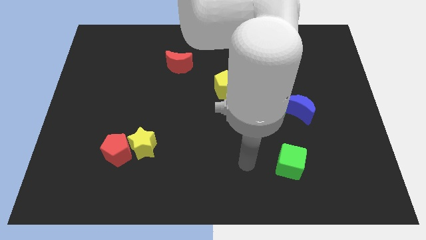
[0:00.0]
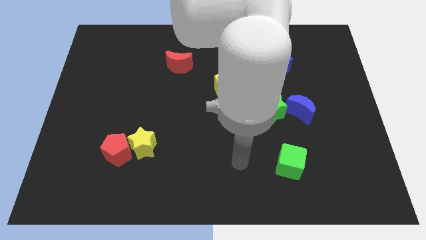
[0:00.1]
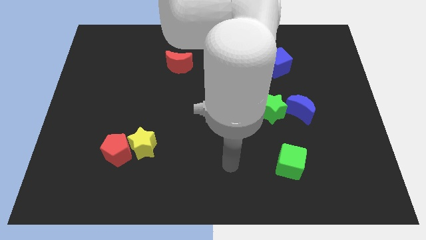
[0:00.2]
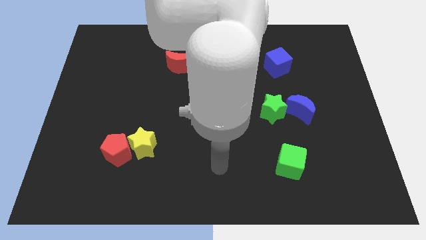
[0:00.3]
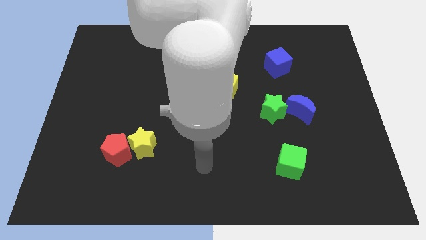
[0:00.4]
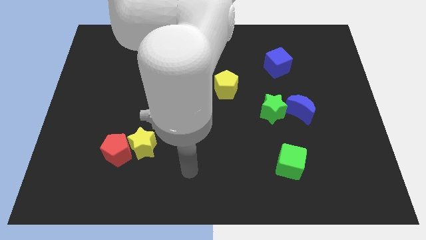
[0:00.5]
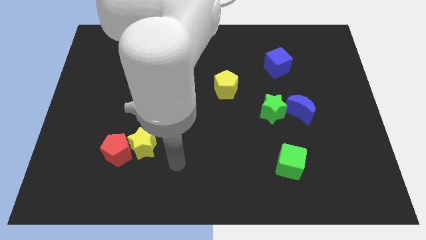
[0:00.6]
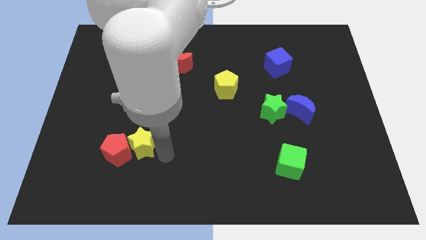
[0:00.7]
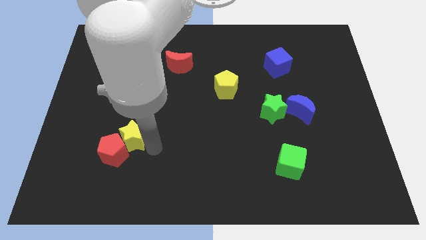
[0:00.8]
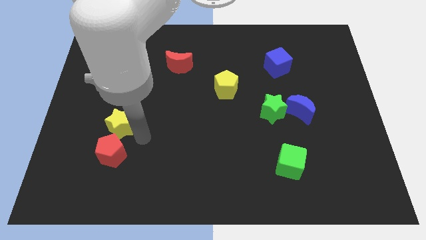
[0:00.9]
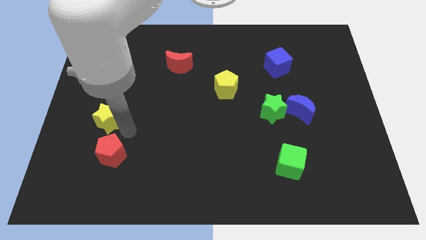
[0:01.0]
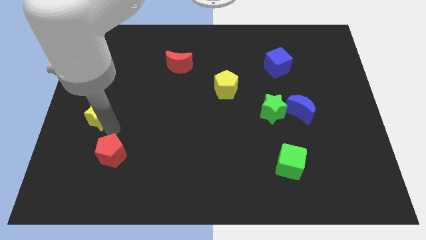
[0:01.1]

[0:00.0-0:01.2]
pull the red pentagon apart from the yellow star

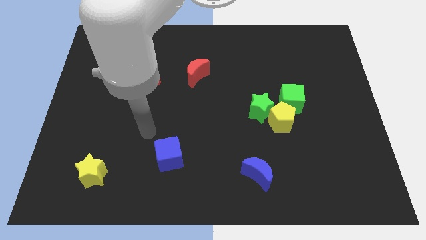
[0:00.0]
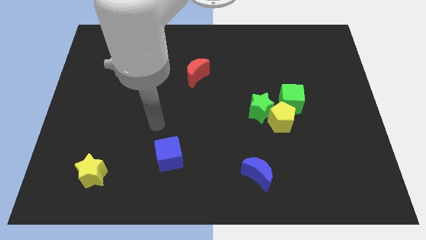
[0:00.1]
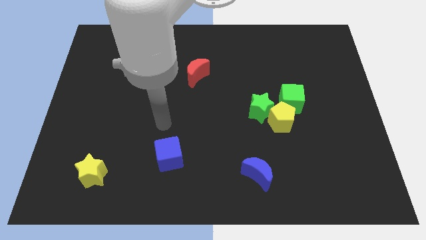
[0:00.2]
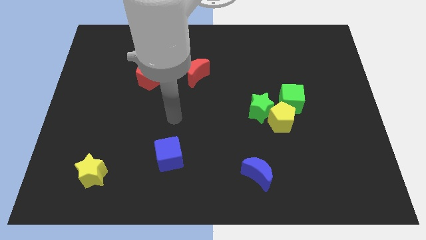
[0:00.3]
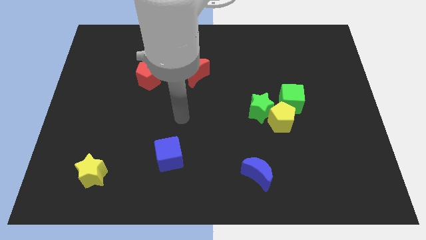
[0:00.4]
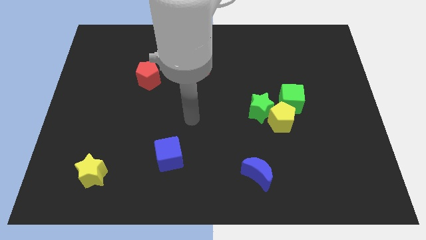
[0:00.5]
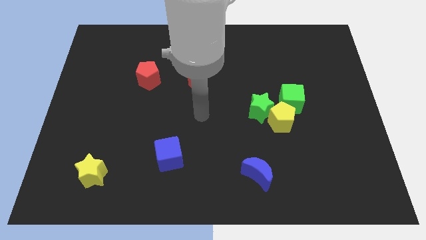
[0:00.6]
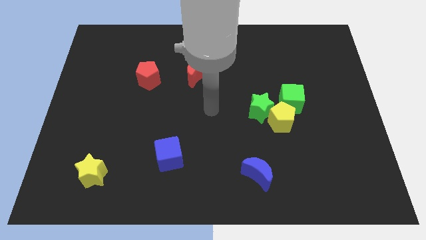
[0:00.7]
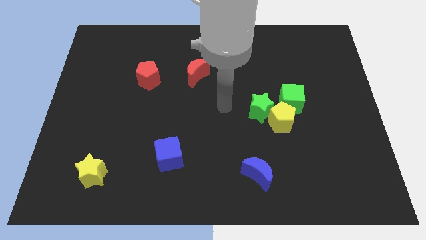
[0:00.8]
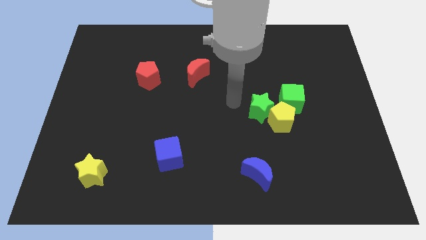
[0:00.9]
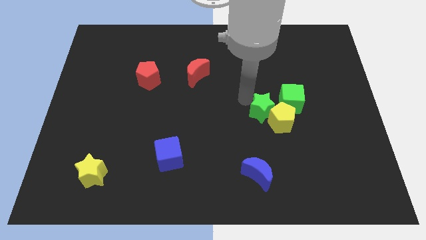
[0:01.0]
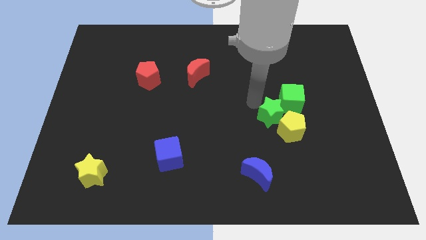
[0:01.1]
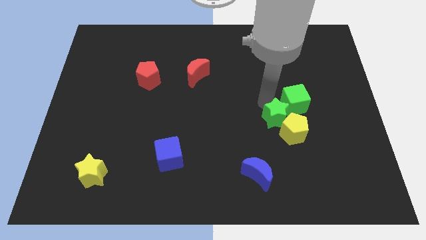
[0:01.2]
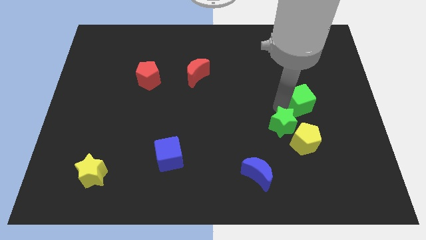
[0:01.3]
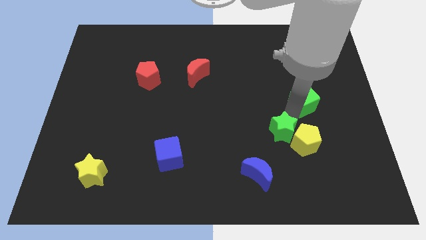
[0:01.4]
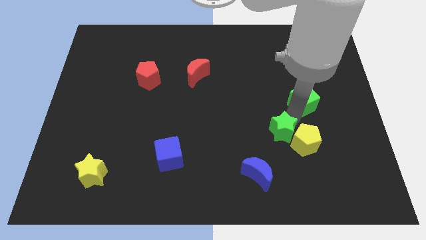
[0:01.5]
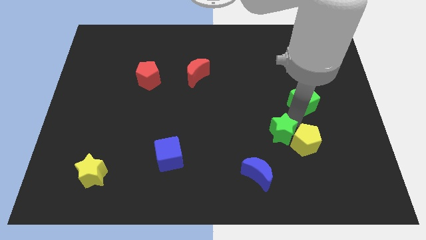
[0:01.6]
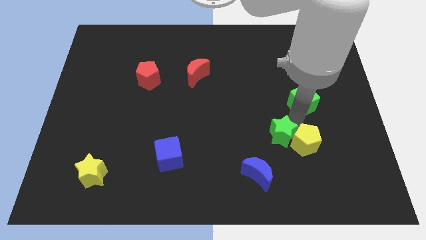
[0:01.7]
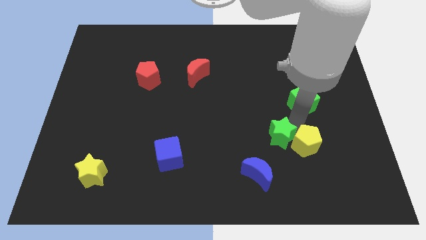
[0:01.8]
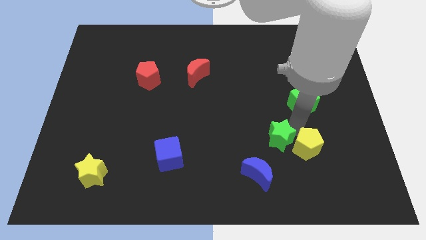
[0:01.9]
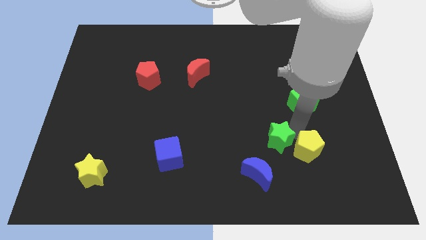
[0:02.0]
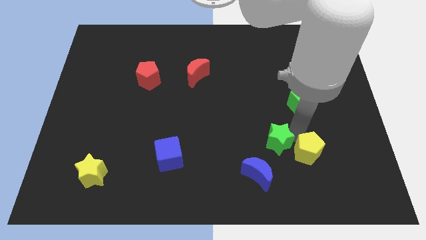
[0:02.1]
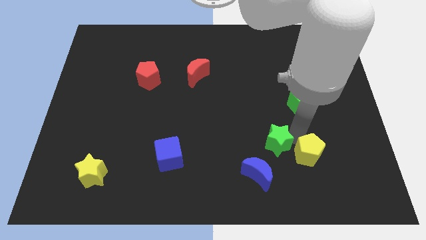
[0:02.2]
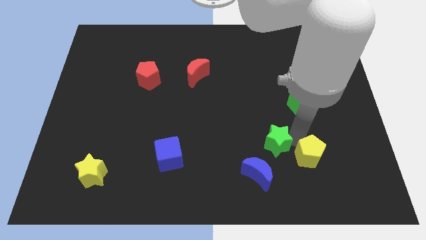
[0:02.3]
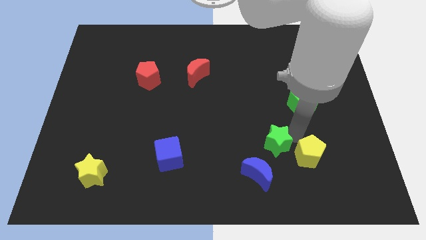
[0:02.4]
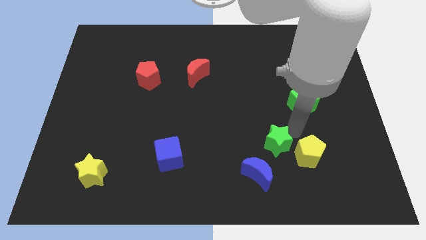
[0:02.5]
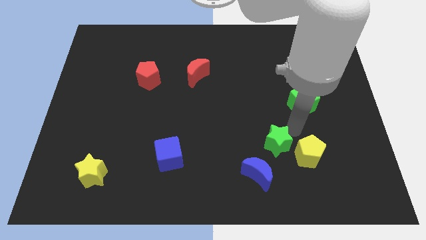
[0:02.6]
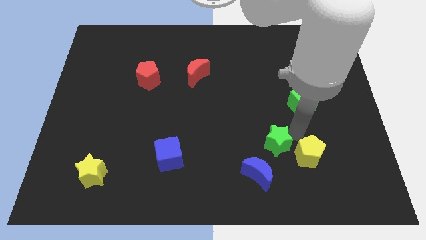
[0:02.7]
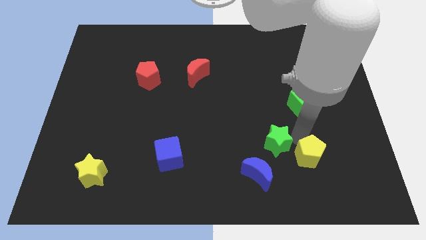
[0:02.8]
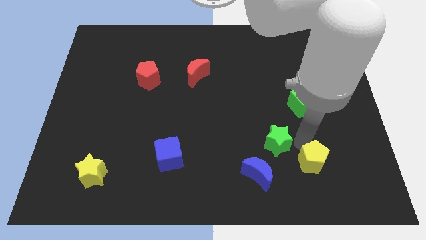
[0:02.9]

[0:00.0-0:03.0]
pull the yellow pentagon apart from the green star and green cube

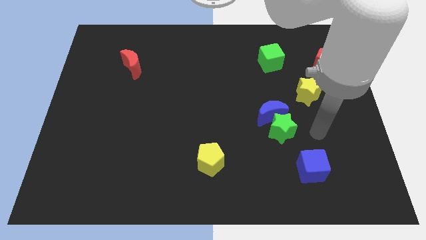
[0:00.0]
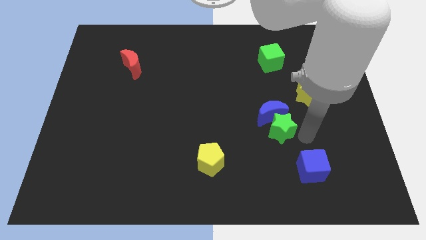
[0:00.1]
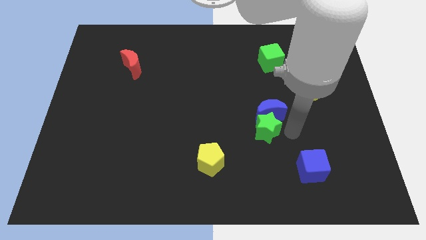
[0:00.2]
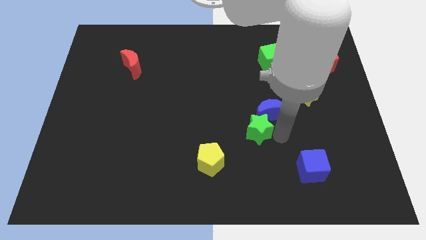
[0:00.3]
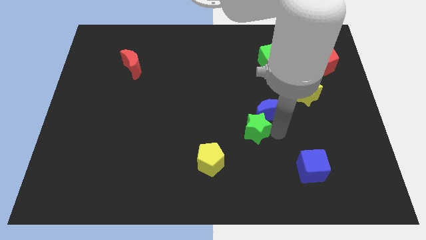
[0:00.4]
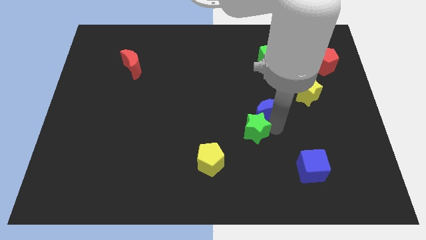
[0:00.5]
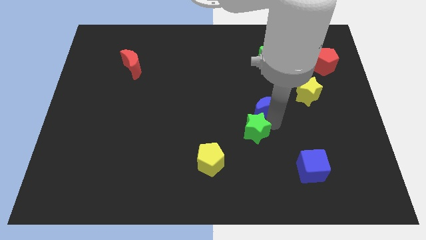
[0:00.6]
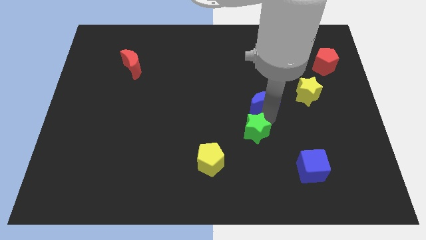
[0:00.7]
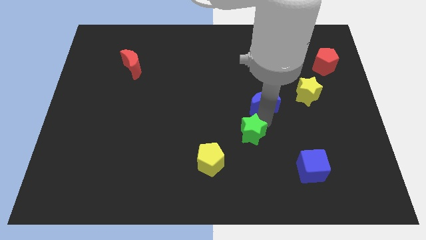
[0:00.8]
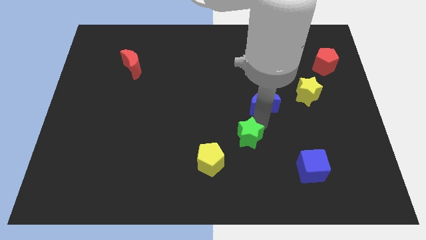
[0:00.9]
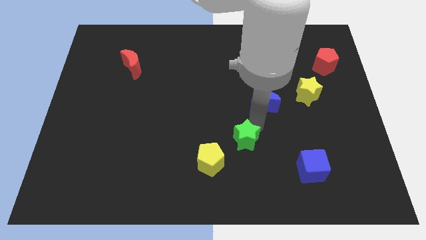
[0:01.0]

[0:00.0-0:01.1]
pull the blue moon apart from the green star

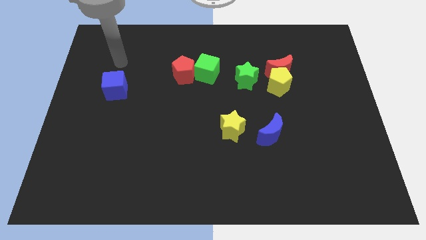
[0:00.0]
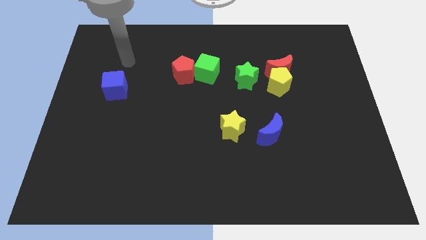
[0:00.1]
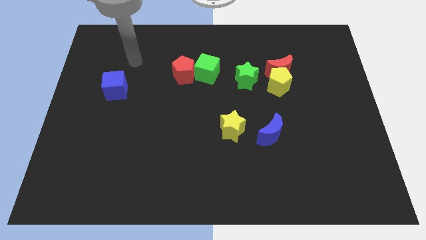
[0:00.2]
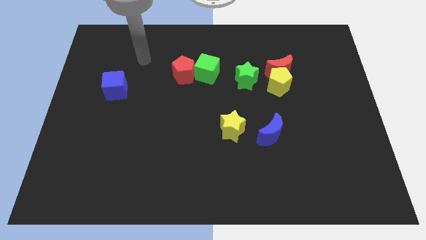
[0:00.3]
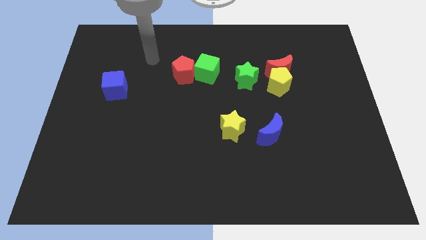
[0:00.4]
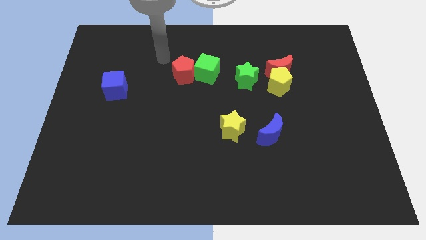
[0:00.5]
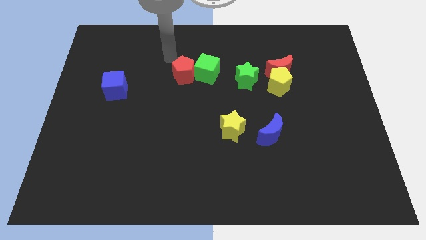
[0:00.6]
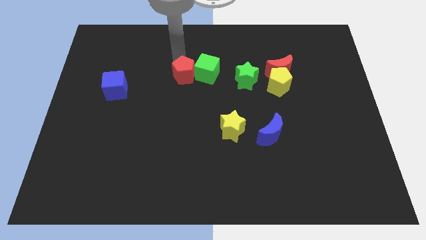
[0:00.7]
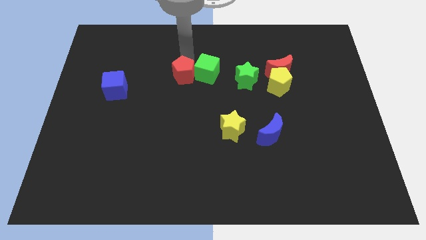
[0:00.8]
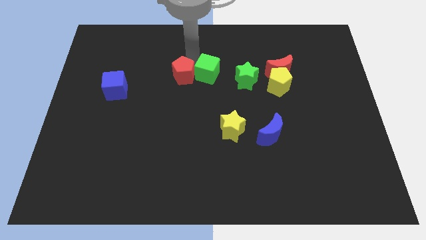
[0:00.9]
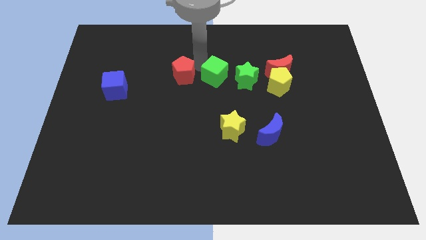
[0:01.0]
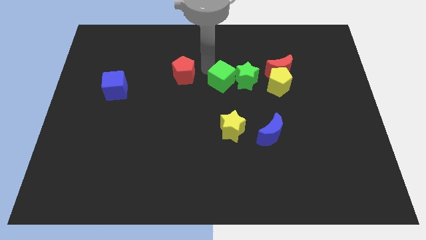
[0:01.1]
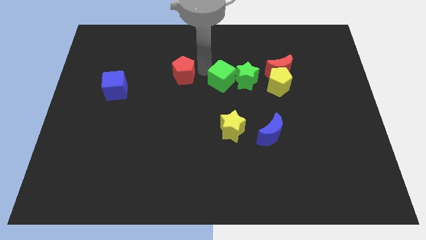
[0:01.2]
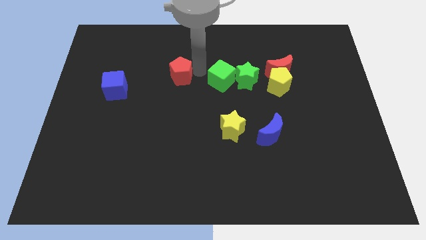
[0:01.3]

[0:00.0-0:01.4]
move the red pentagon away from the green cube

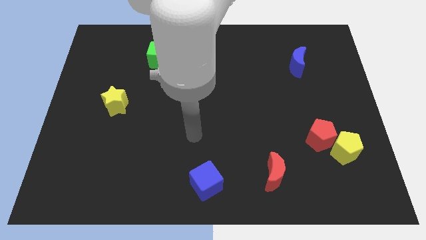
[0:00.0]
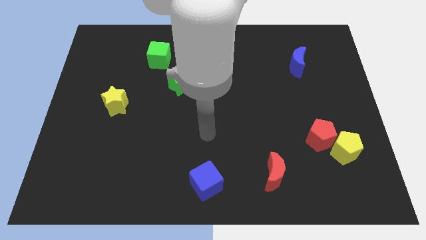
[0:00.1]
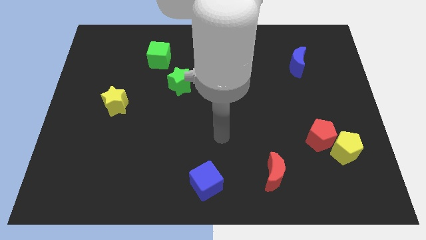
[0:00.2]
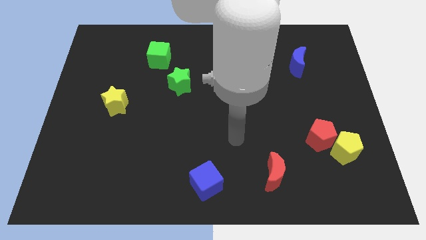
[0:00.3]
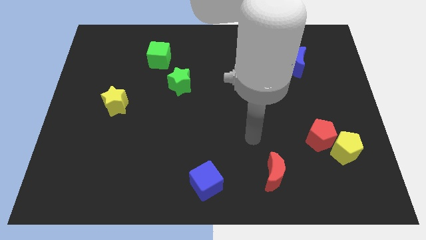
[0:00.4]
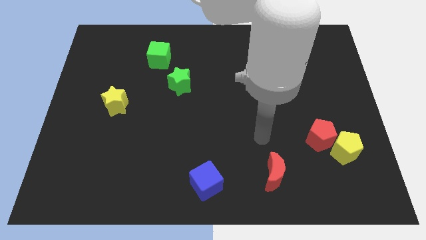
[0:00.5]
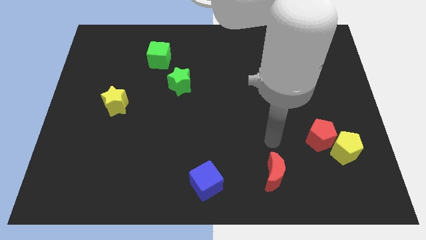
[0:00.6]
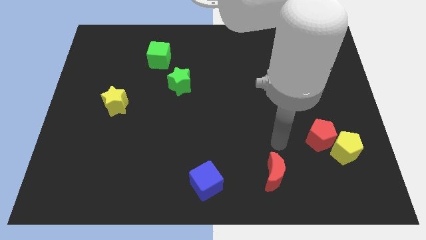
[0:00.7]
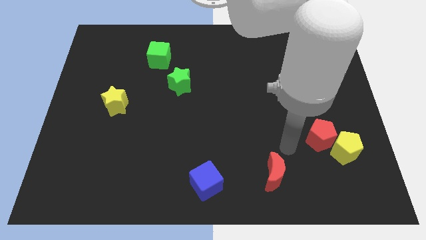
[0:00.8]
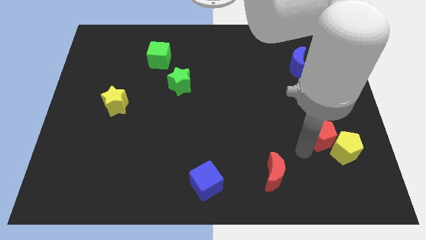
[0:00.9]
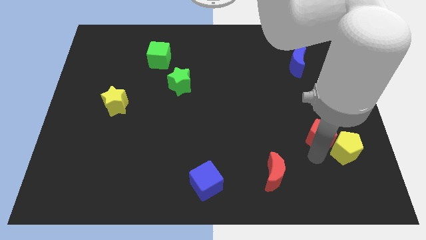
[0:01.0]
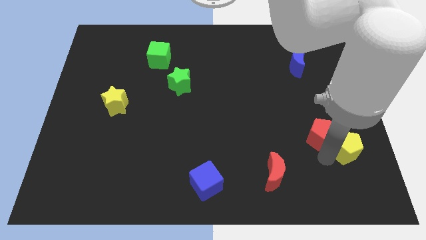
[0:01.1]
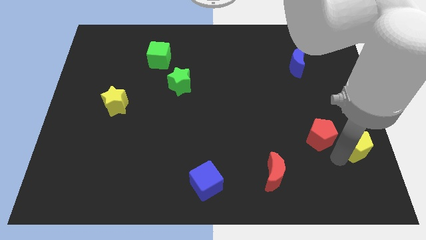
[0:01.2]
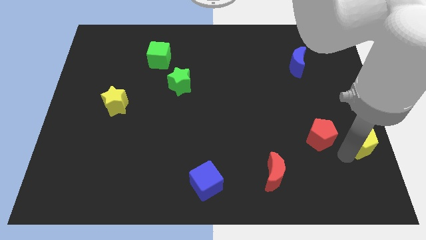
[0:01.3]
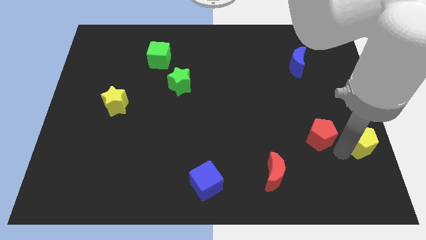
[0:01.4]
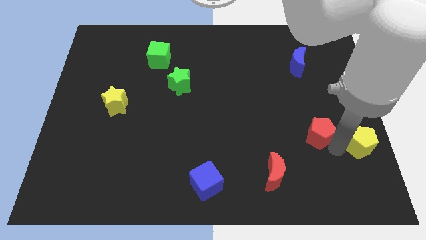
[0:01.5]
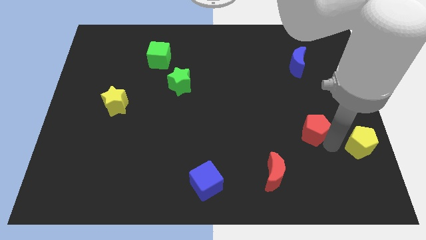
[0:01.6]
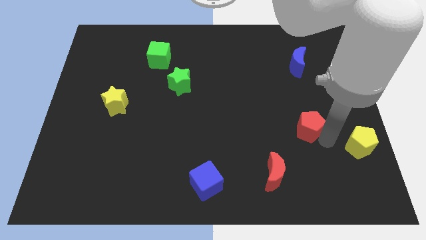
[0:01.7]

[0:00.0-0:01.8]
move the red pentagon away from the yellow pentagon

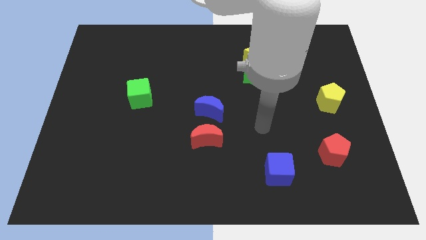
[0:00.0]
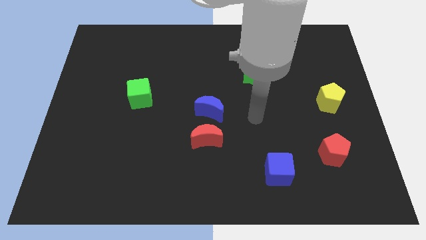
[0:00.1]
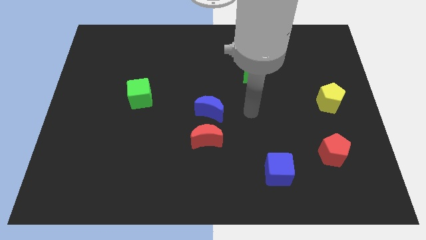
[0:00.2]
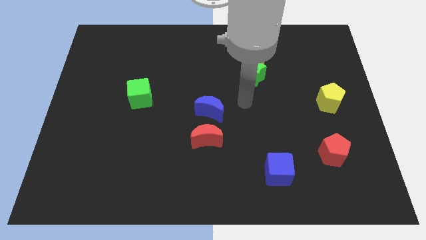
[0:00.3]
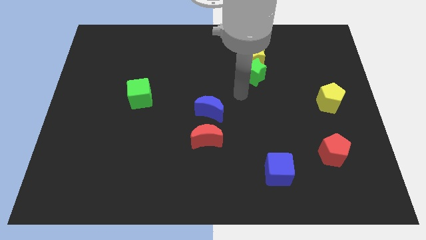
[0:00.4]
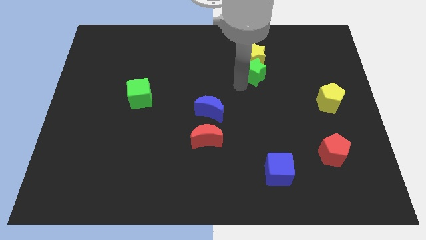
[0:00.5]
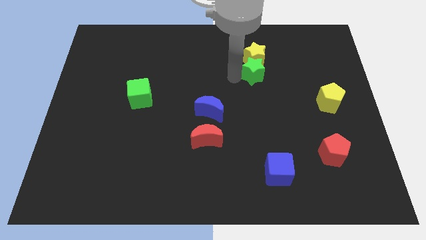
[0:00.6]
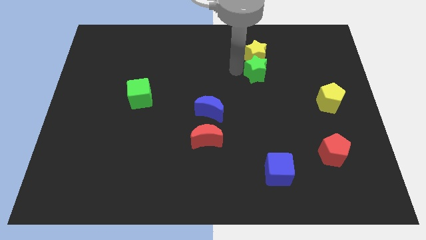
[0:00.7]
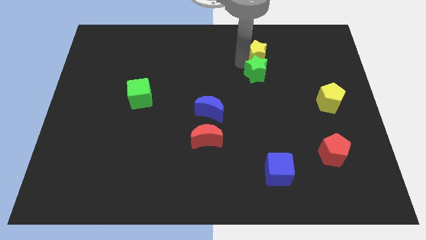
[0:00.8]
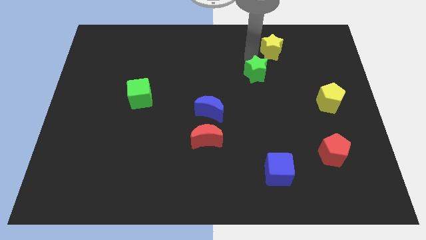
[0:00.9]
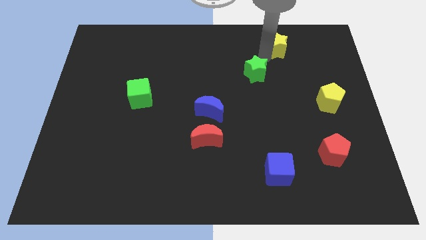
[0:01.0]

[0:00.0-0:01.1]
pull the green star apart from the yellow star
